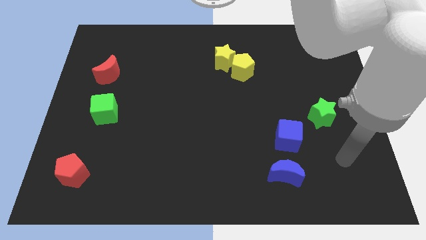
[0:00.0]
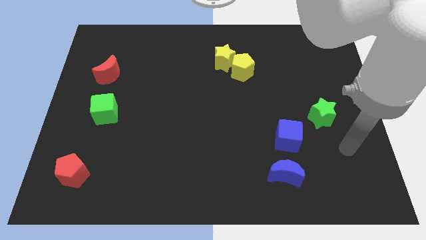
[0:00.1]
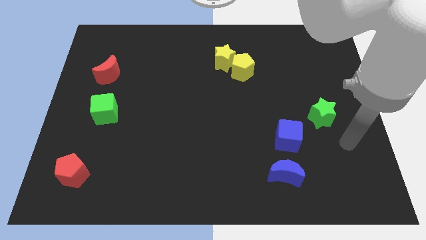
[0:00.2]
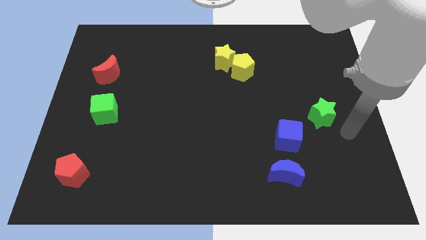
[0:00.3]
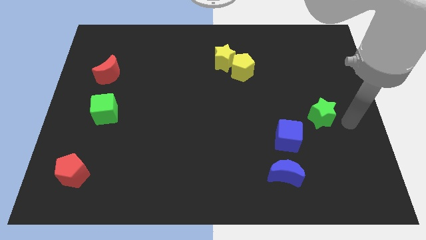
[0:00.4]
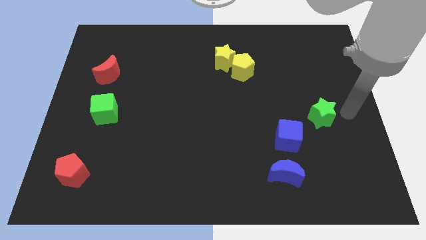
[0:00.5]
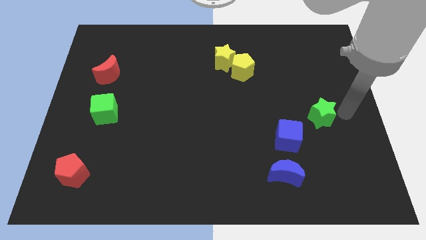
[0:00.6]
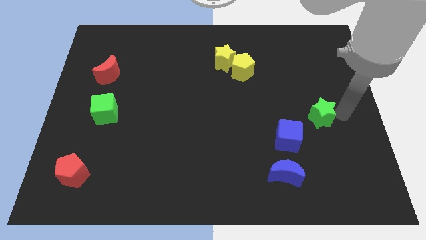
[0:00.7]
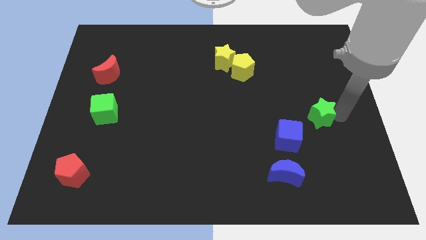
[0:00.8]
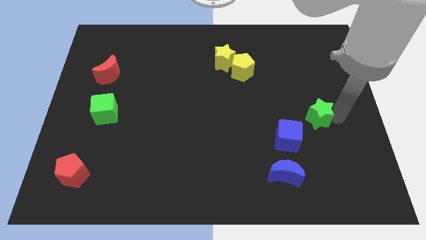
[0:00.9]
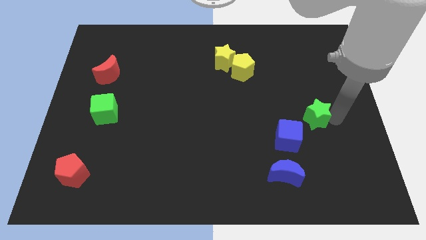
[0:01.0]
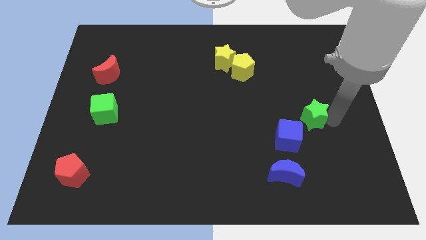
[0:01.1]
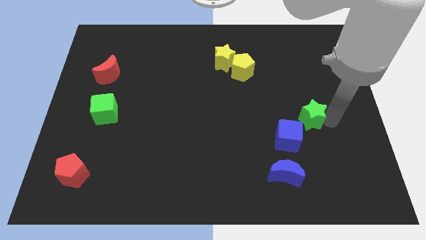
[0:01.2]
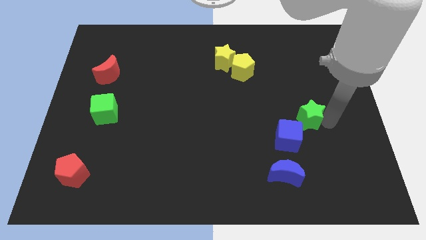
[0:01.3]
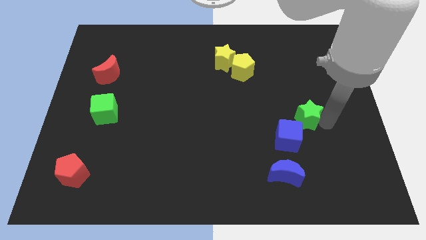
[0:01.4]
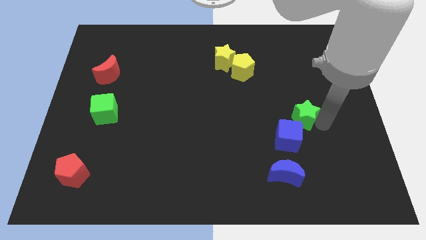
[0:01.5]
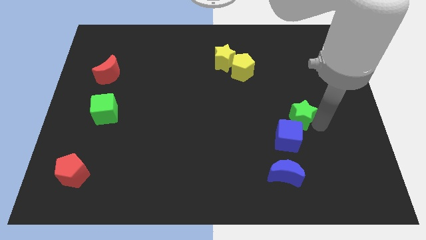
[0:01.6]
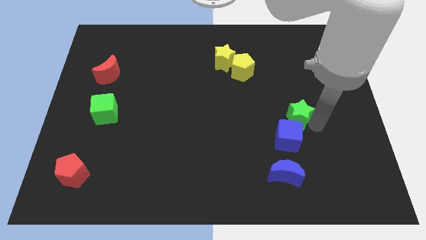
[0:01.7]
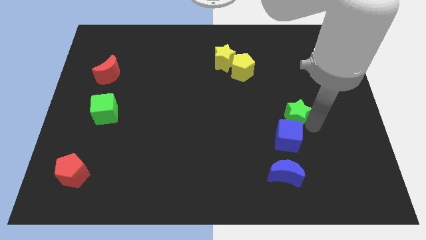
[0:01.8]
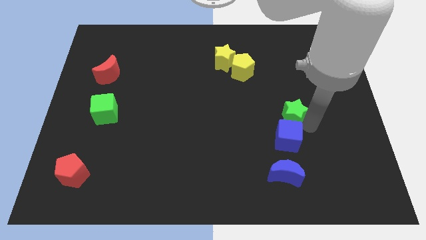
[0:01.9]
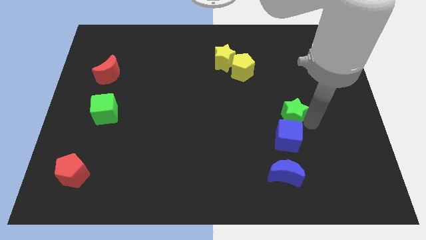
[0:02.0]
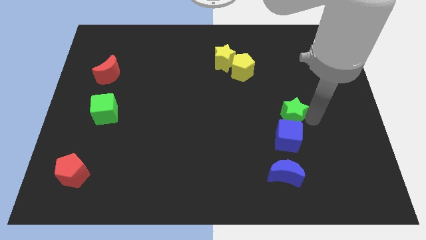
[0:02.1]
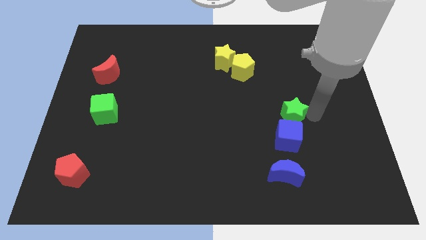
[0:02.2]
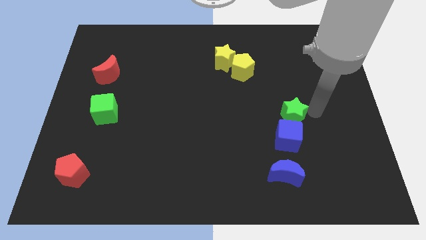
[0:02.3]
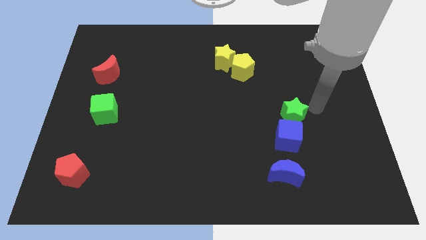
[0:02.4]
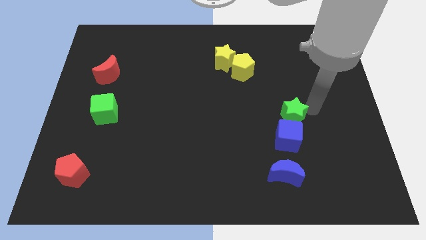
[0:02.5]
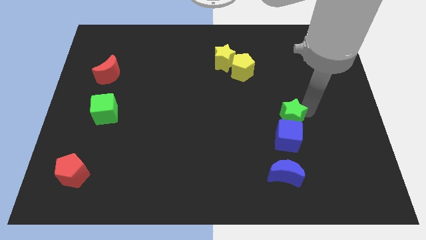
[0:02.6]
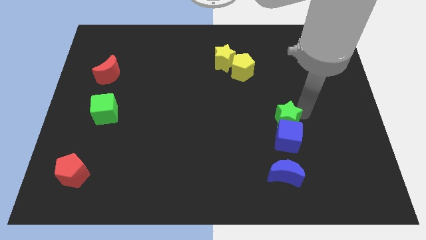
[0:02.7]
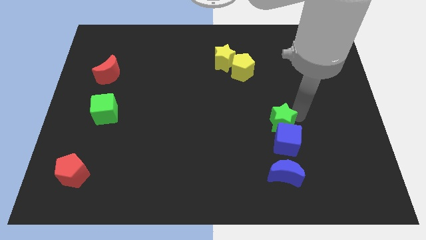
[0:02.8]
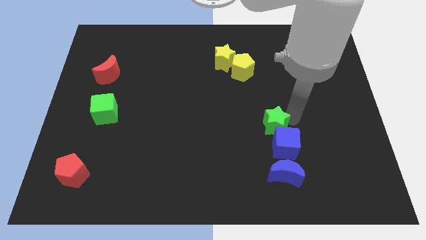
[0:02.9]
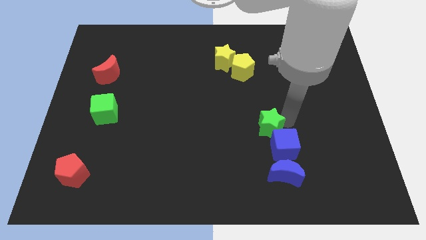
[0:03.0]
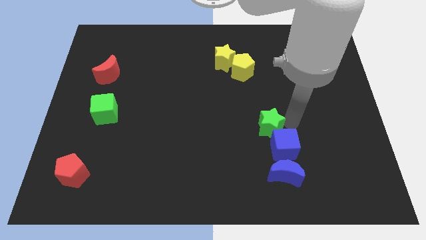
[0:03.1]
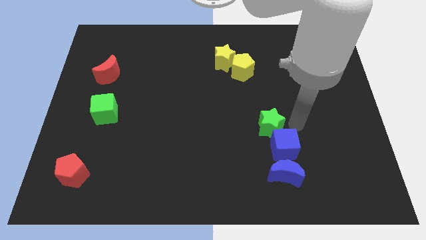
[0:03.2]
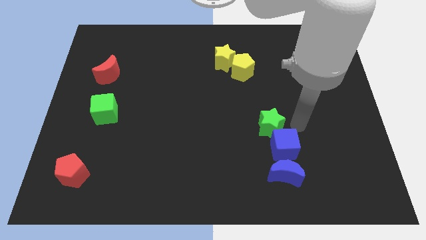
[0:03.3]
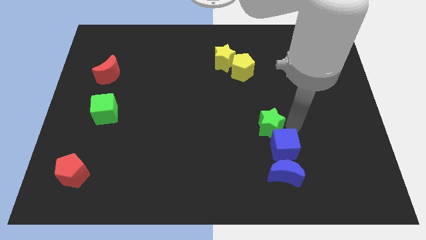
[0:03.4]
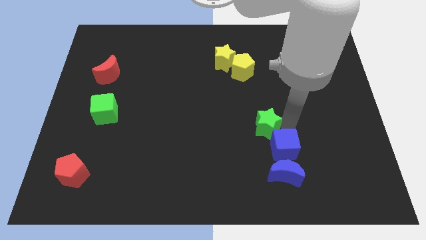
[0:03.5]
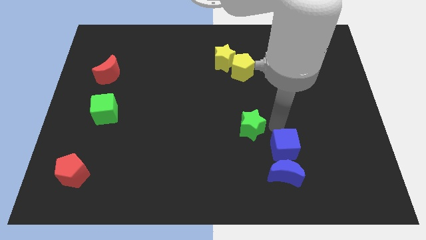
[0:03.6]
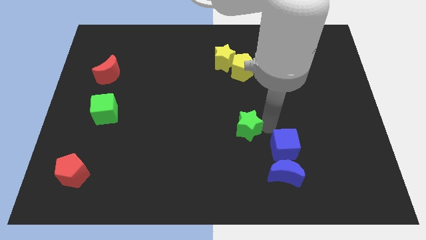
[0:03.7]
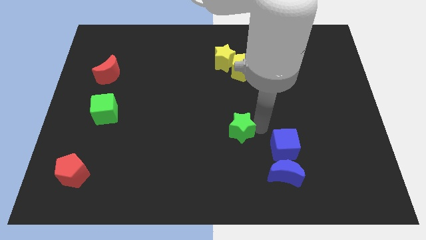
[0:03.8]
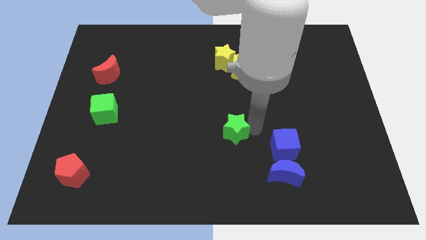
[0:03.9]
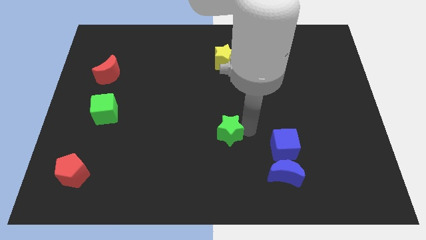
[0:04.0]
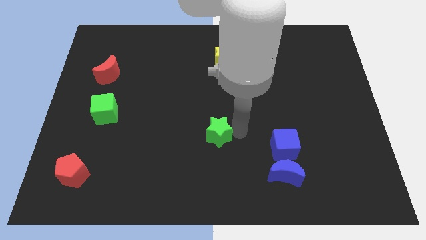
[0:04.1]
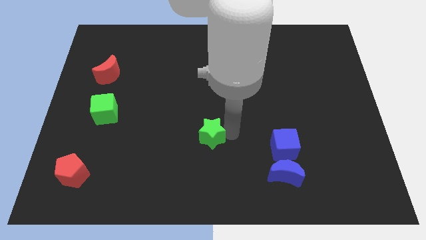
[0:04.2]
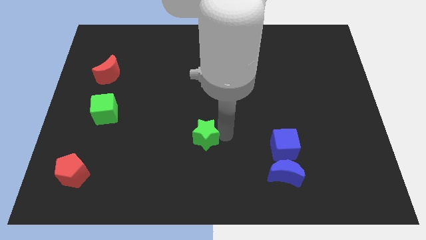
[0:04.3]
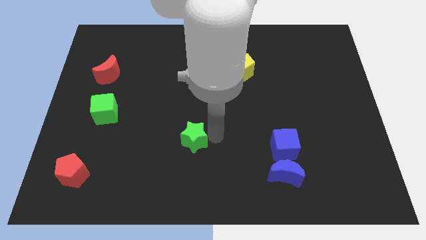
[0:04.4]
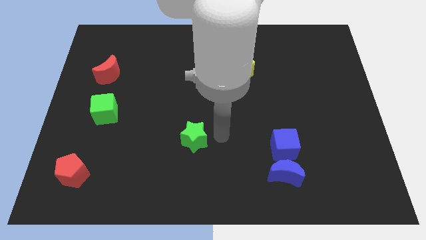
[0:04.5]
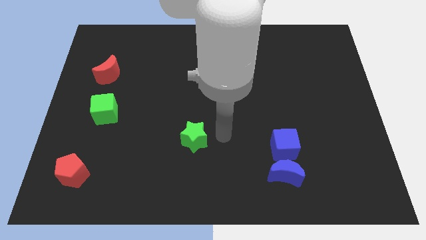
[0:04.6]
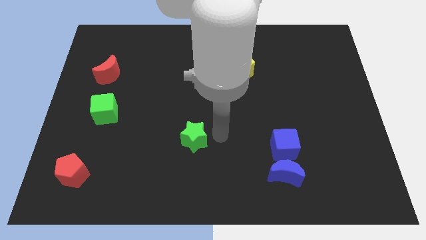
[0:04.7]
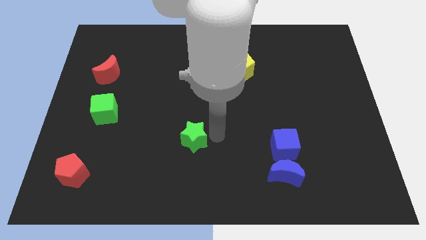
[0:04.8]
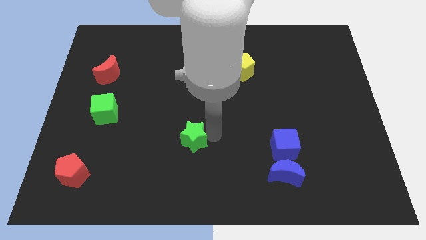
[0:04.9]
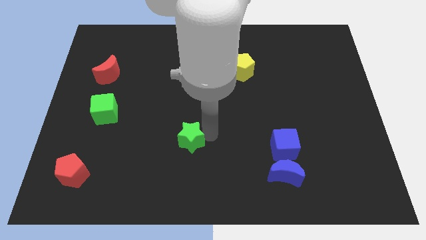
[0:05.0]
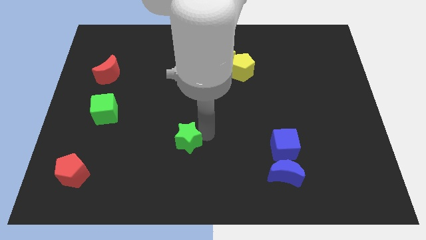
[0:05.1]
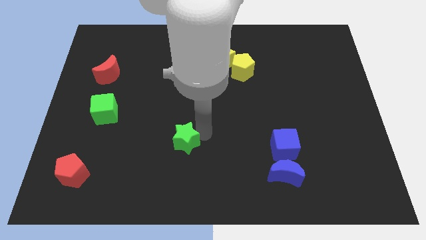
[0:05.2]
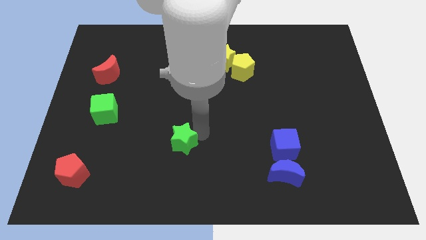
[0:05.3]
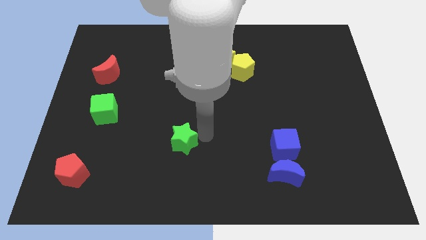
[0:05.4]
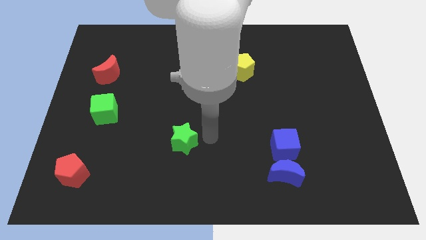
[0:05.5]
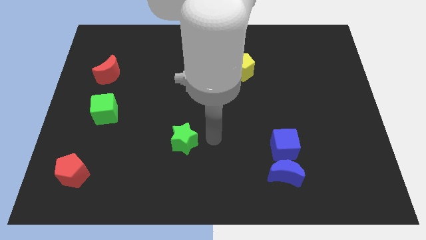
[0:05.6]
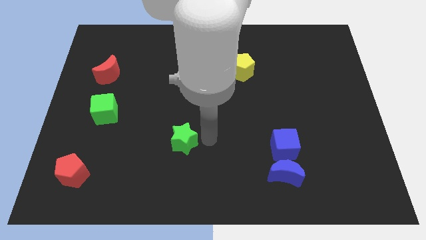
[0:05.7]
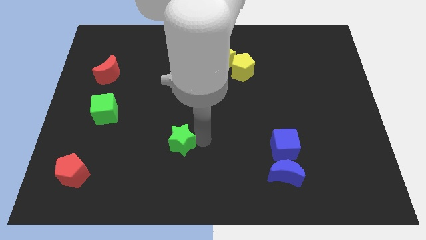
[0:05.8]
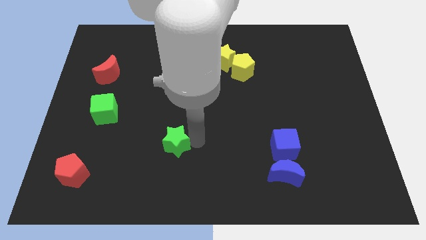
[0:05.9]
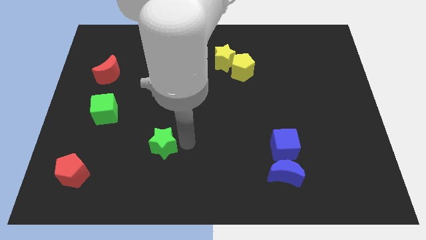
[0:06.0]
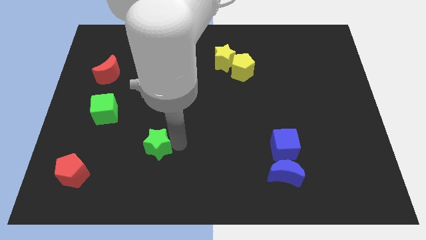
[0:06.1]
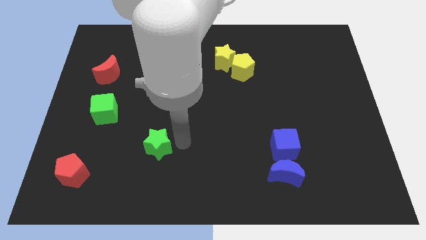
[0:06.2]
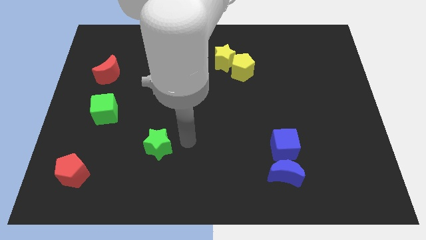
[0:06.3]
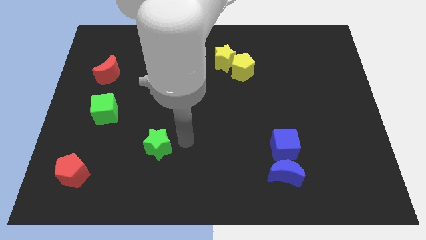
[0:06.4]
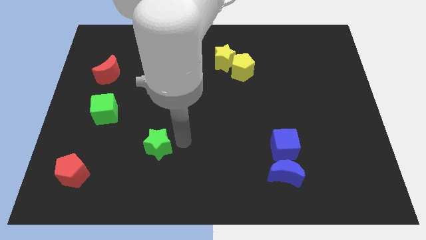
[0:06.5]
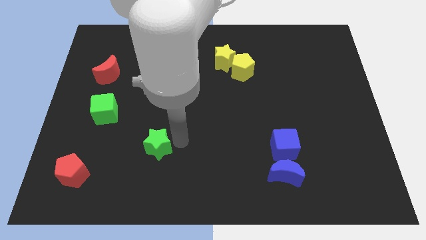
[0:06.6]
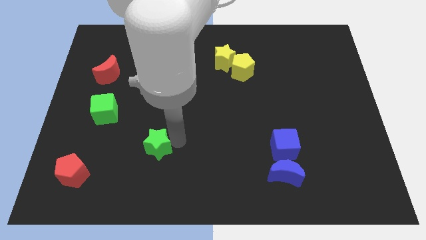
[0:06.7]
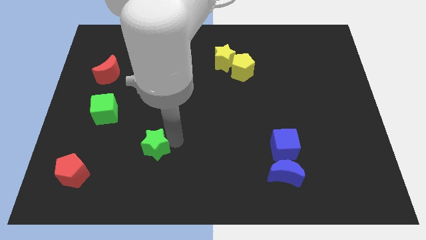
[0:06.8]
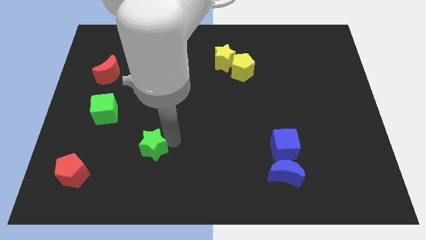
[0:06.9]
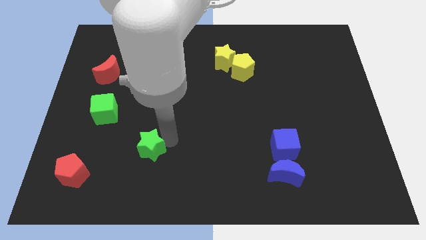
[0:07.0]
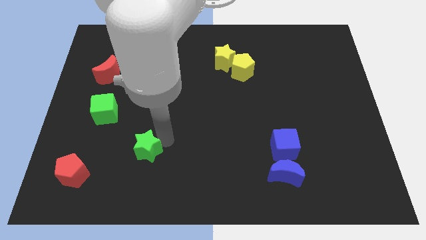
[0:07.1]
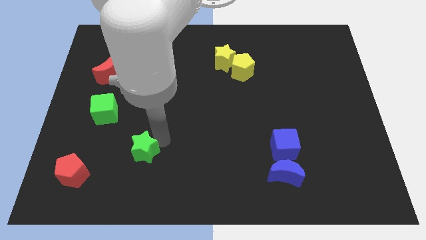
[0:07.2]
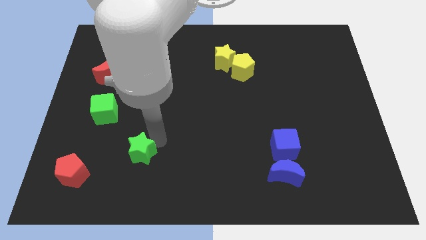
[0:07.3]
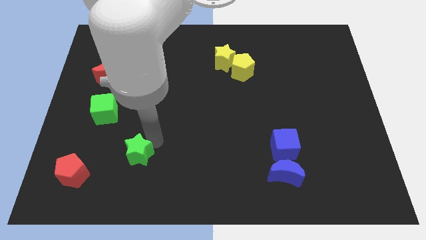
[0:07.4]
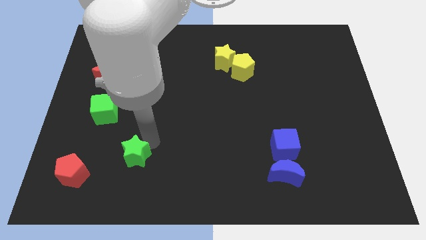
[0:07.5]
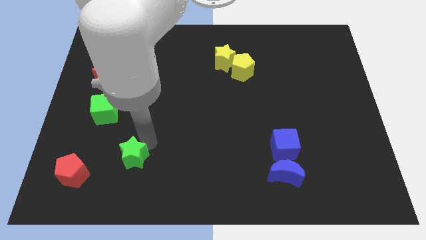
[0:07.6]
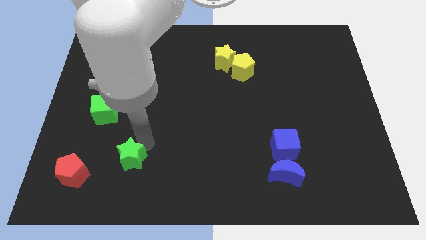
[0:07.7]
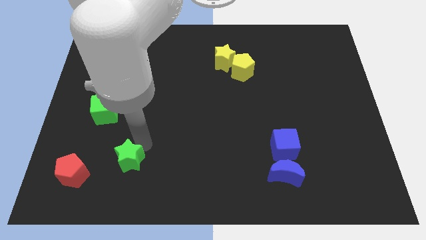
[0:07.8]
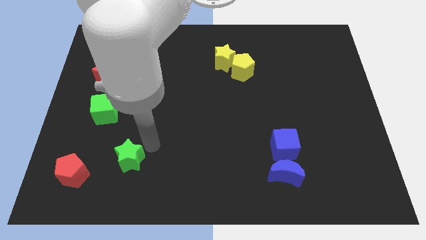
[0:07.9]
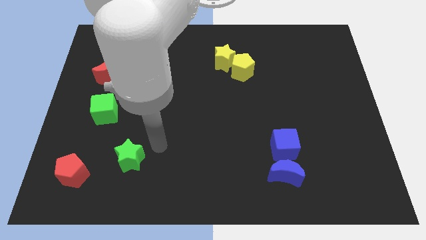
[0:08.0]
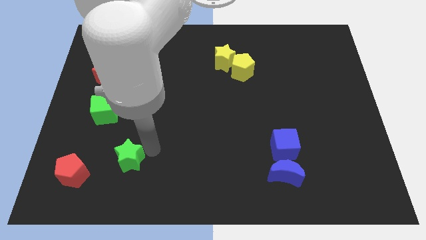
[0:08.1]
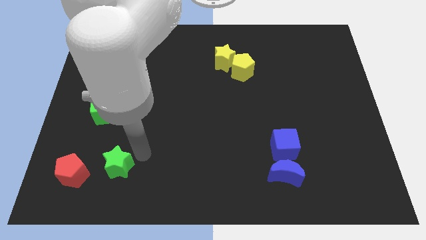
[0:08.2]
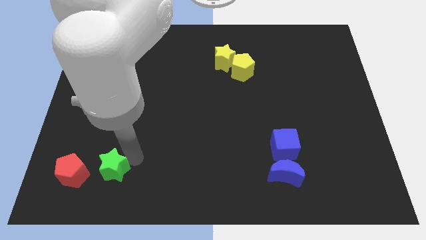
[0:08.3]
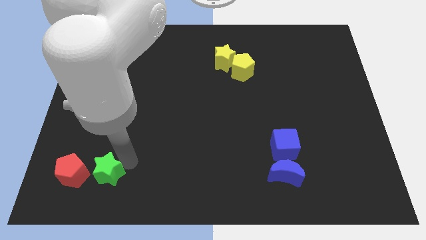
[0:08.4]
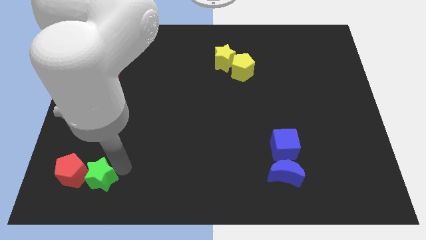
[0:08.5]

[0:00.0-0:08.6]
move the green star next to the red pentagon
